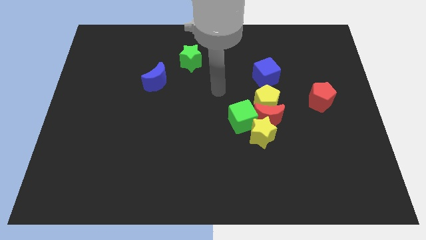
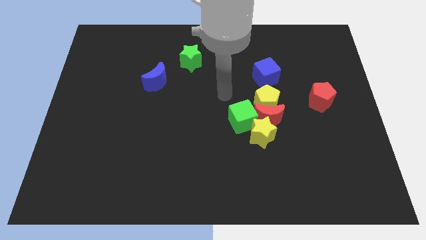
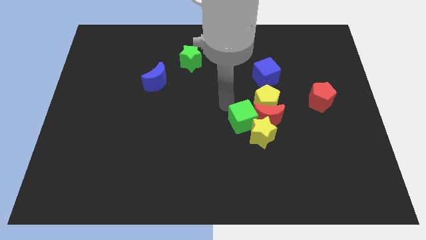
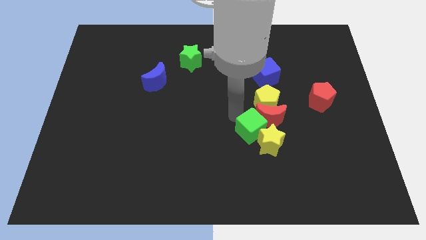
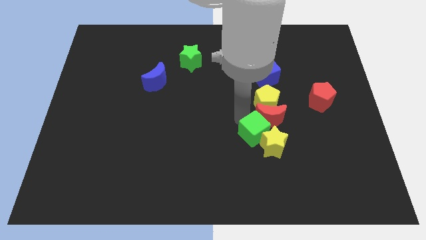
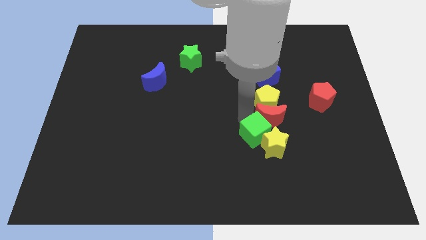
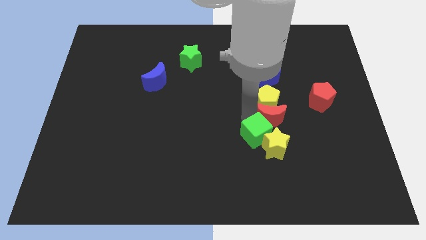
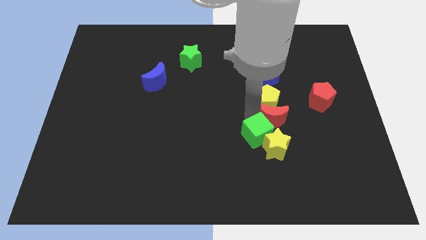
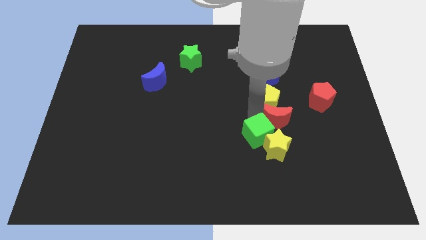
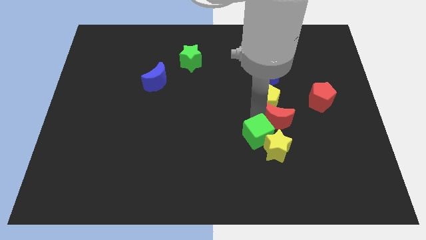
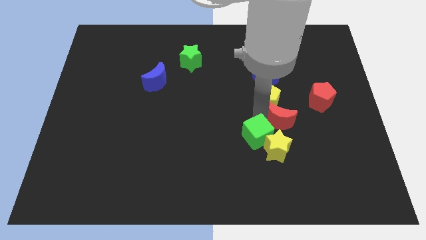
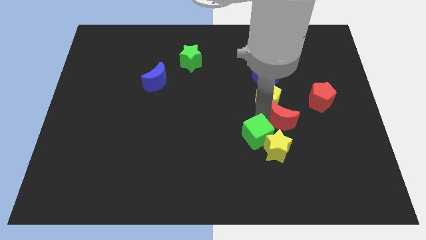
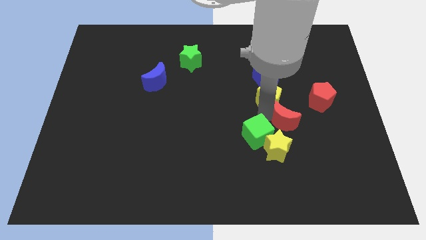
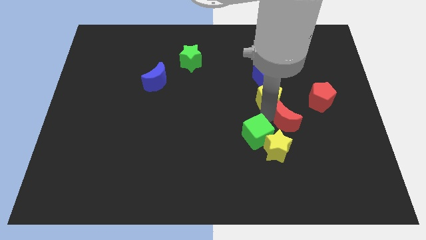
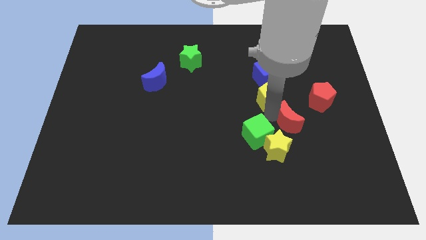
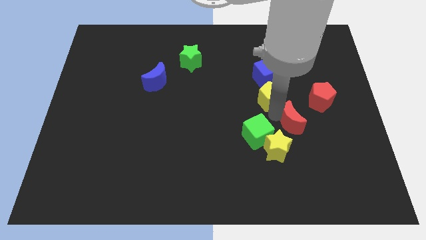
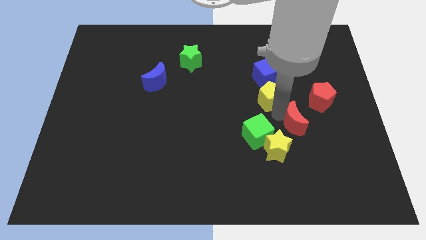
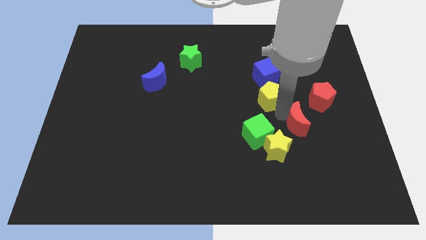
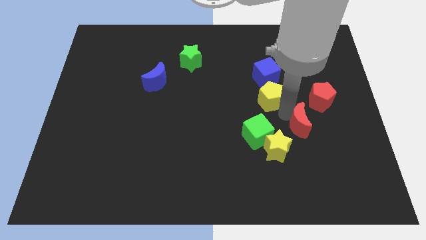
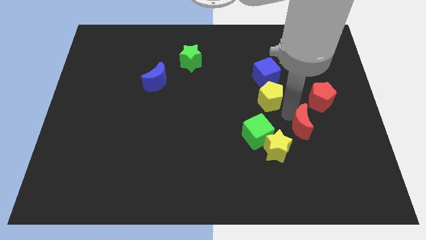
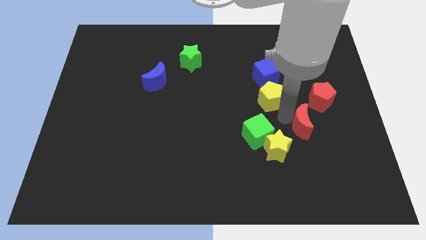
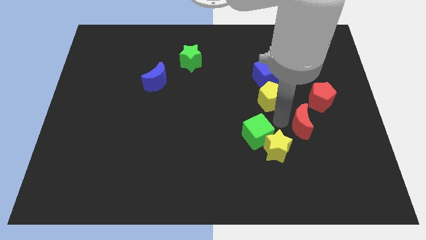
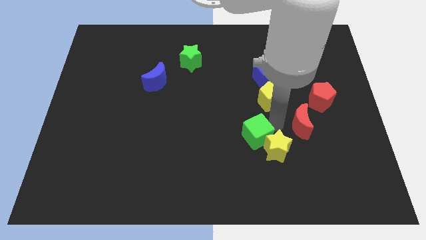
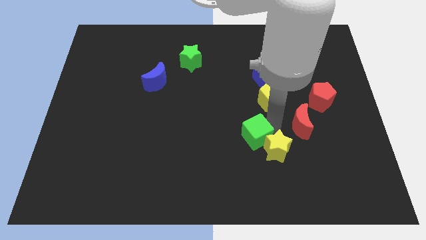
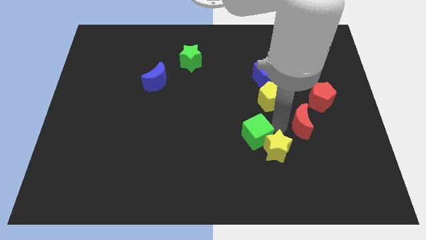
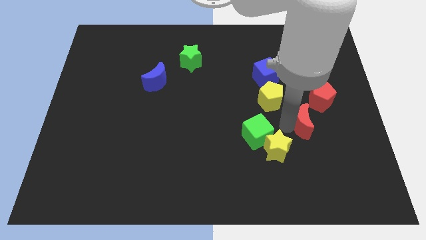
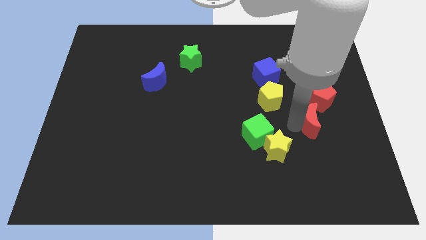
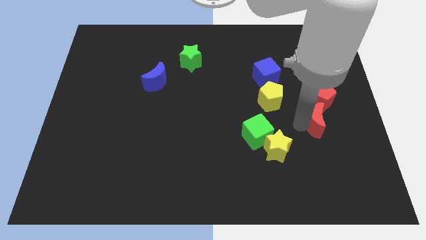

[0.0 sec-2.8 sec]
pull the red moon apart from the group

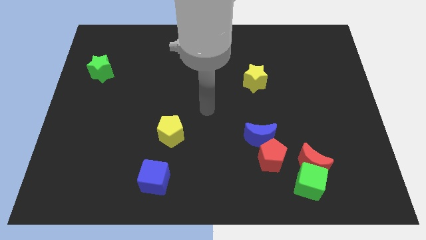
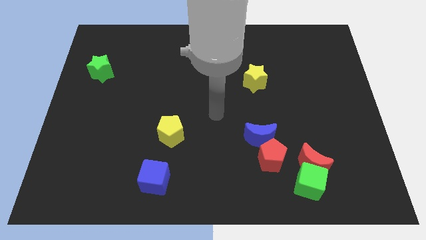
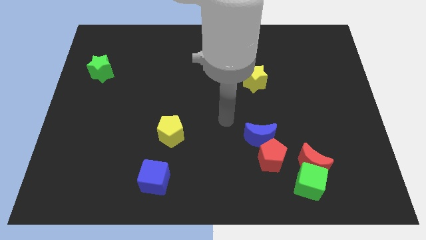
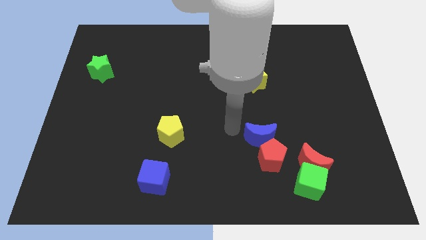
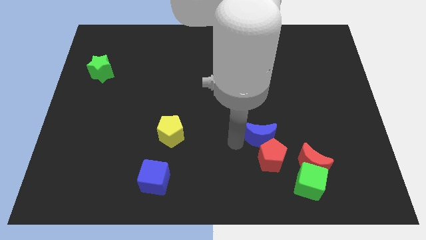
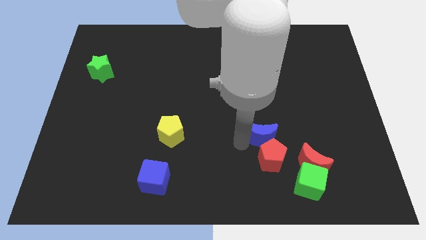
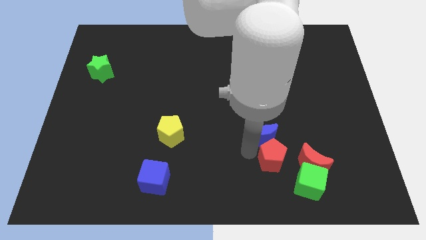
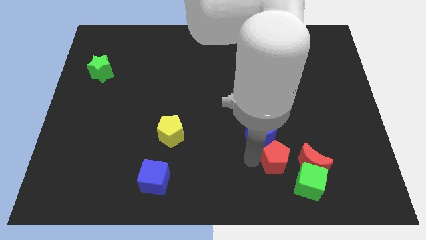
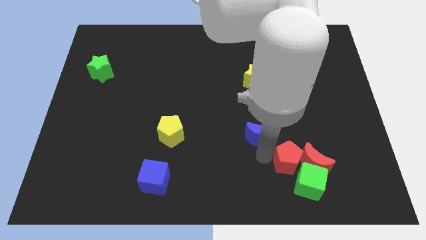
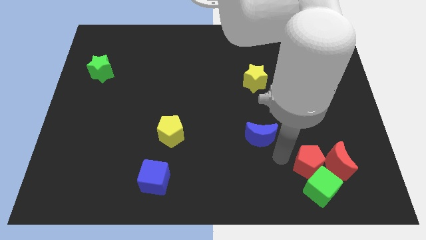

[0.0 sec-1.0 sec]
pull the blue moon apart from the red pentagon

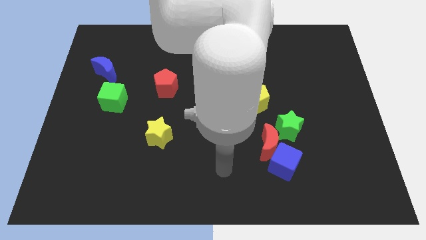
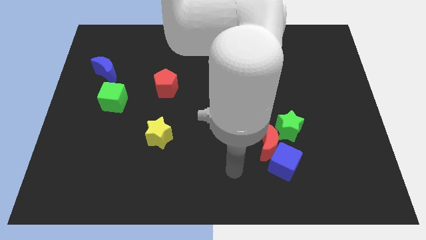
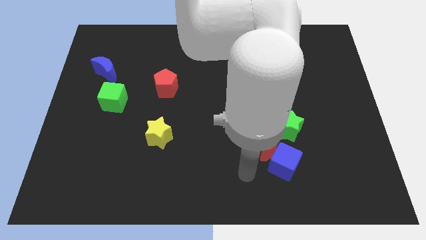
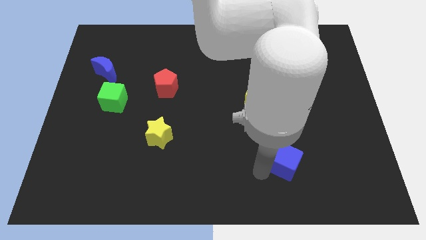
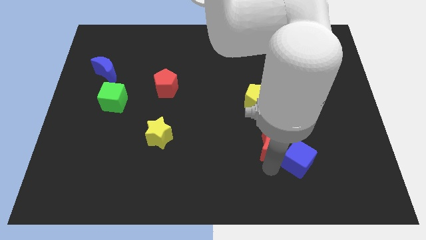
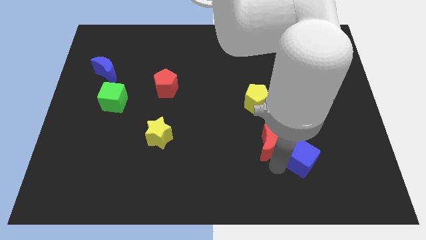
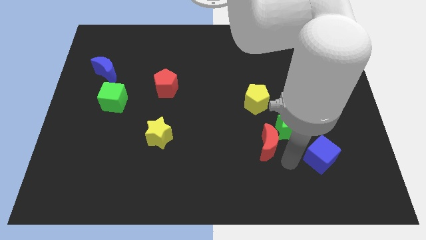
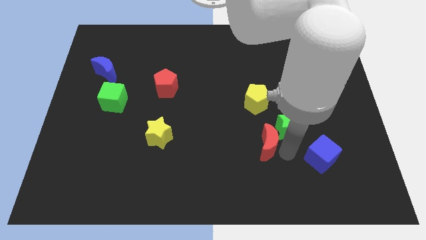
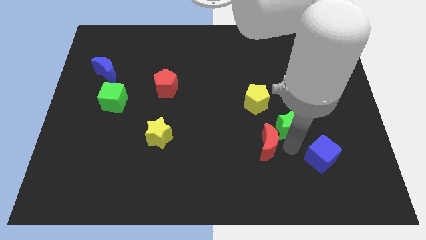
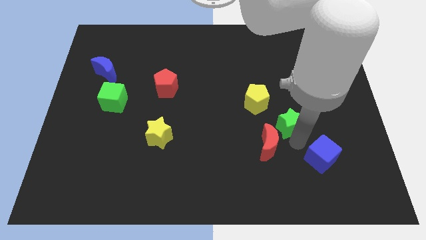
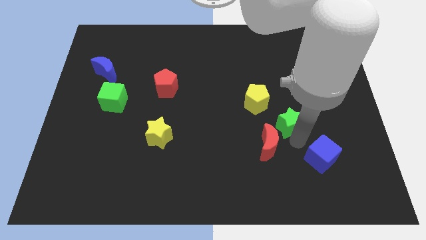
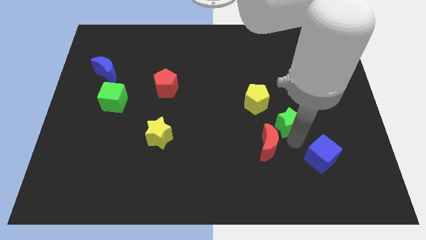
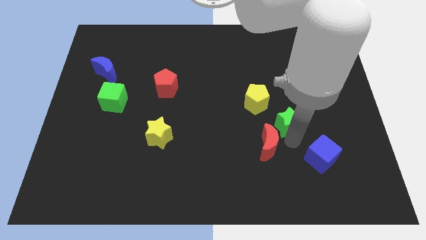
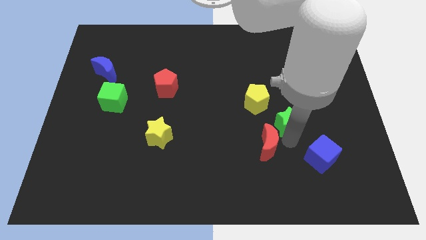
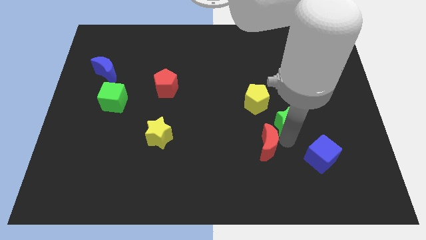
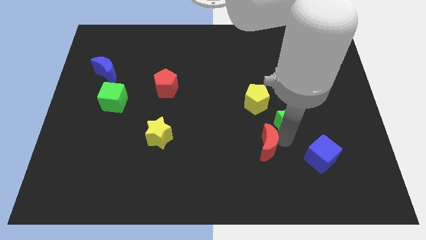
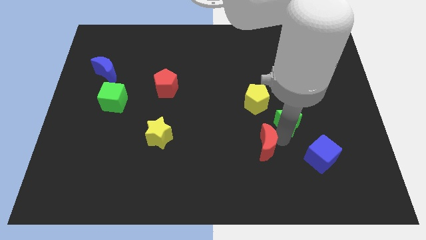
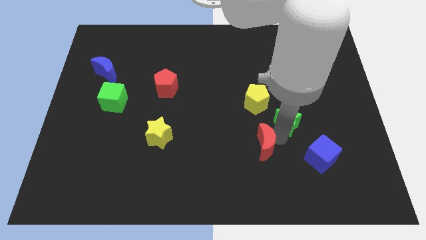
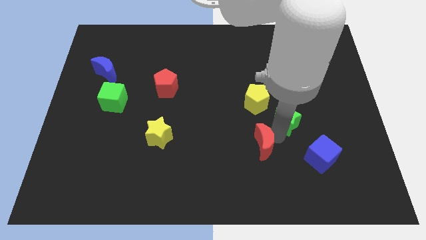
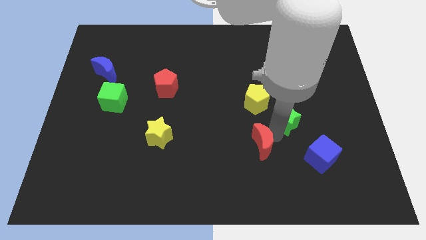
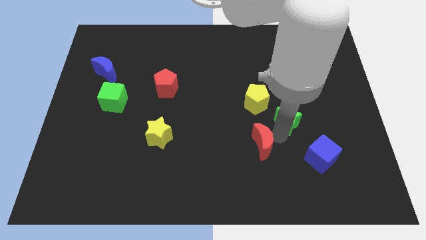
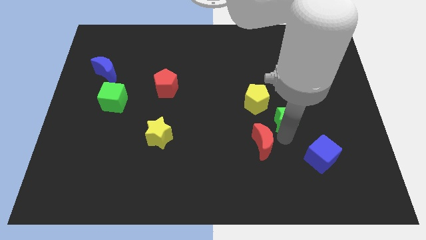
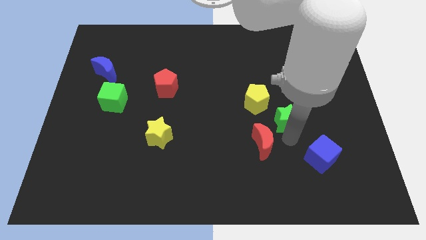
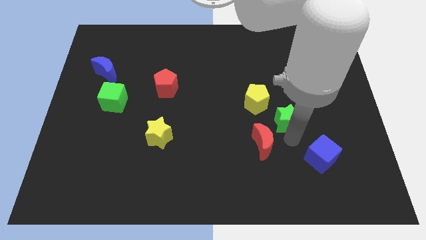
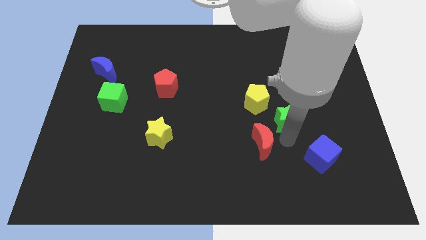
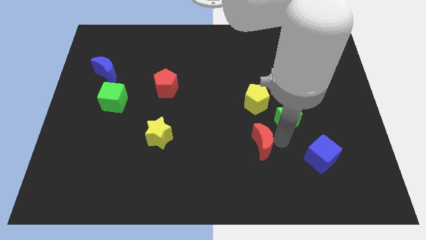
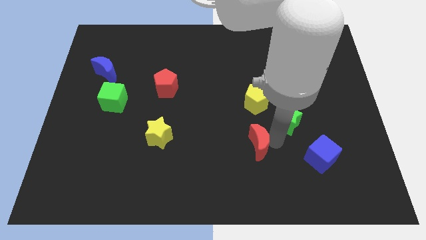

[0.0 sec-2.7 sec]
separate the red moon from the blue cube and green star

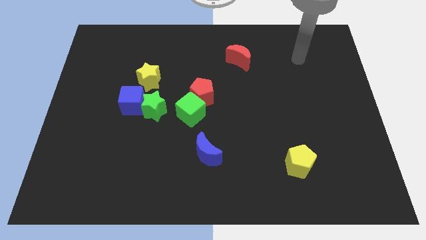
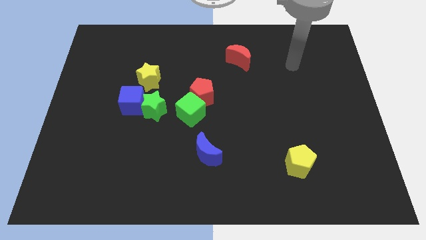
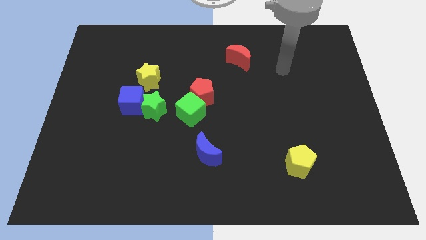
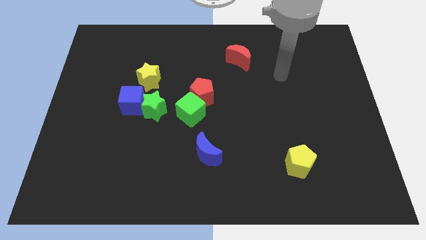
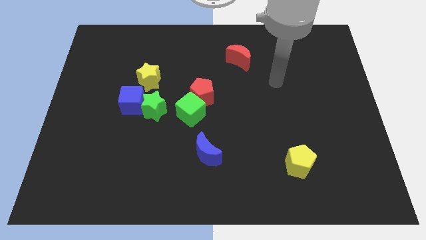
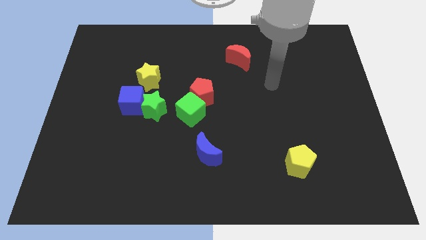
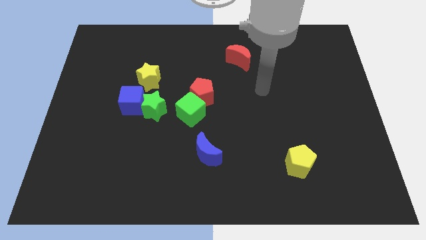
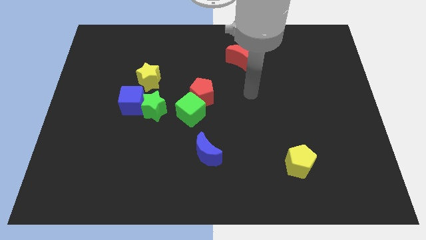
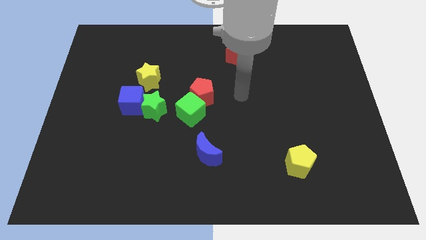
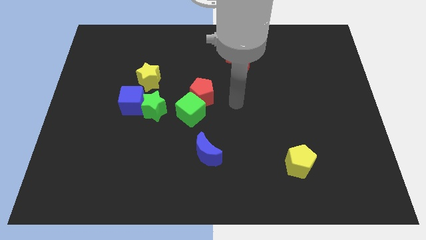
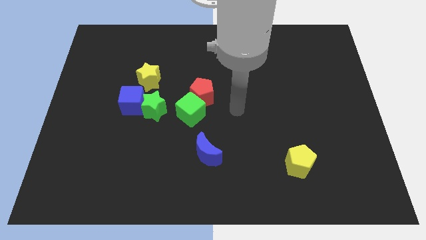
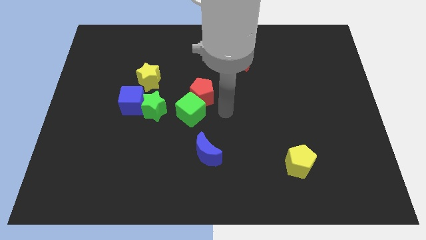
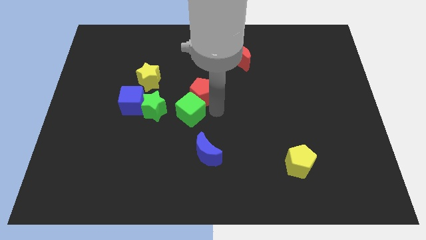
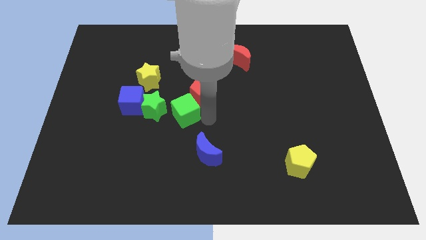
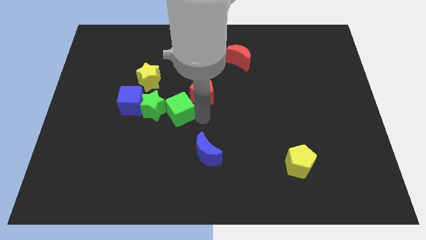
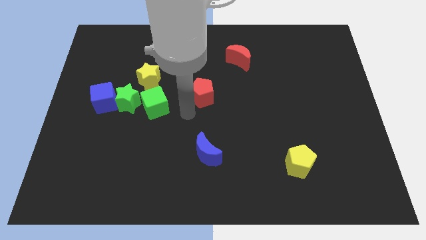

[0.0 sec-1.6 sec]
pull the red pentagon apart from the green cube

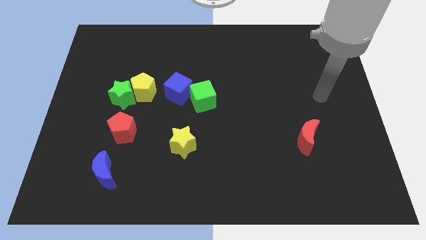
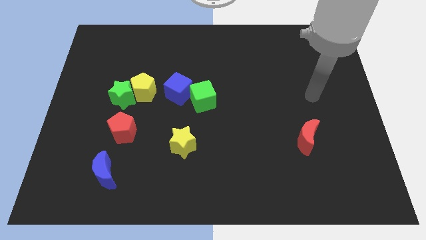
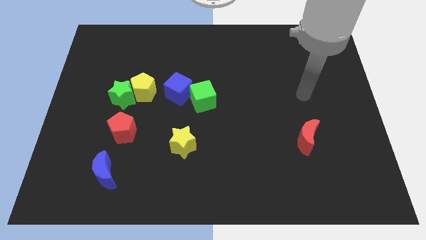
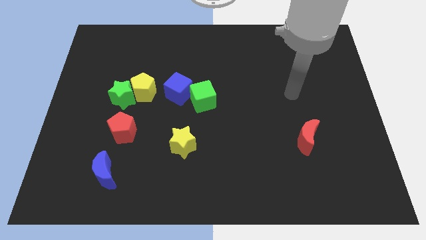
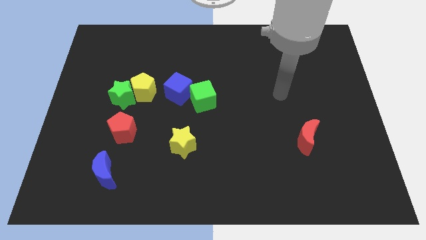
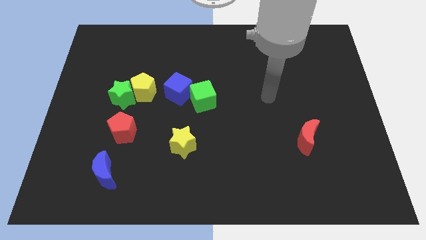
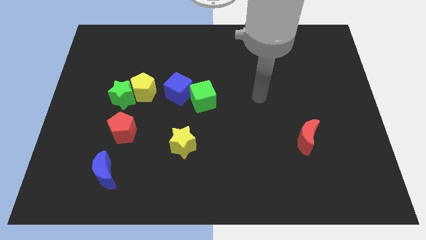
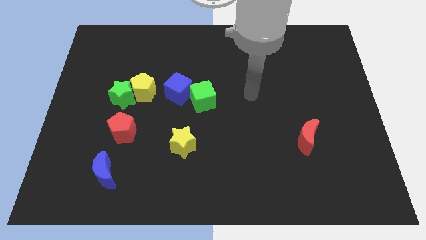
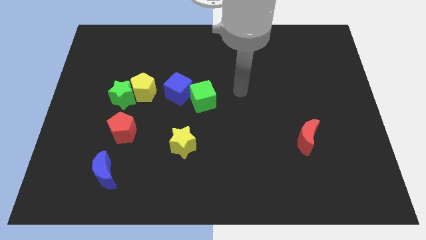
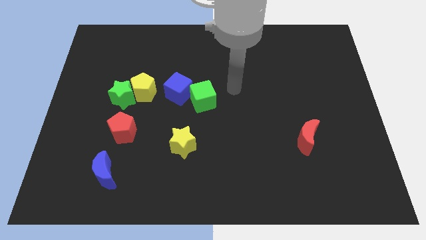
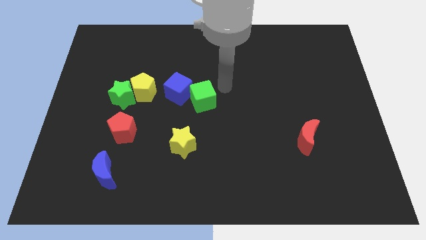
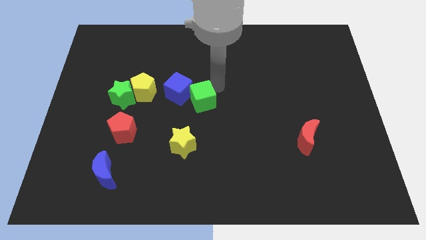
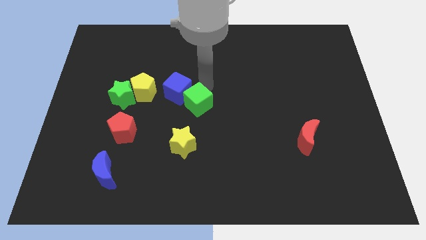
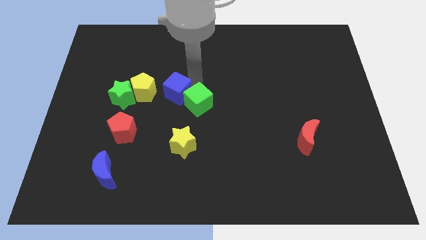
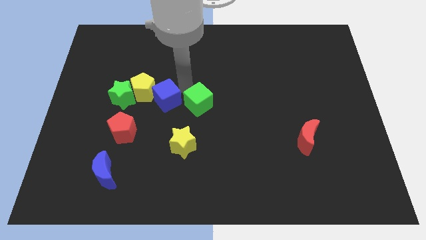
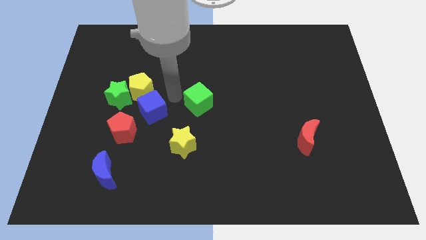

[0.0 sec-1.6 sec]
pull the green cube apart from the blue cube
